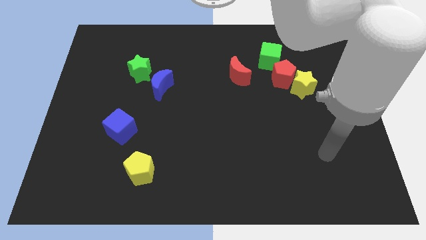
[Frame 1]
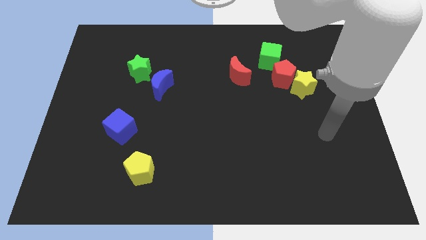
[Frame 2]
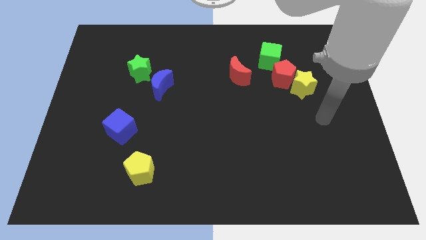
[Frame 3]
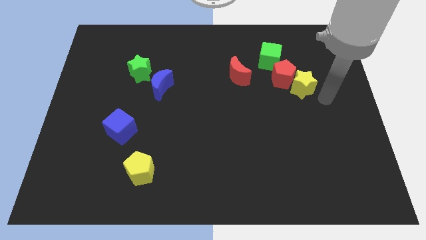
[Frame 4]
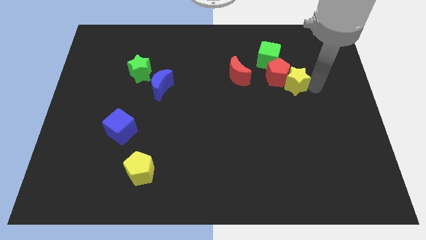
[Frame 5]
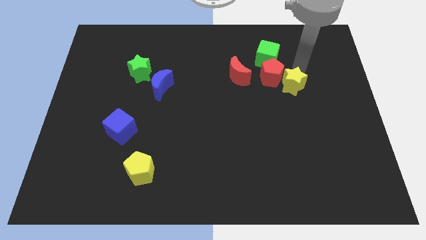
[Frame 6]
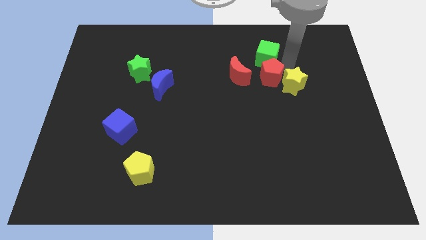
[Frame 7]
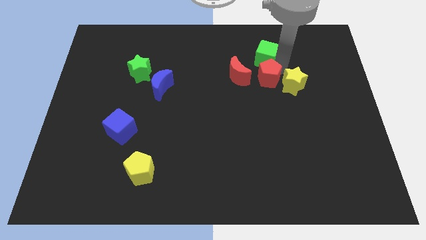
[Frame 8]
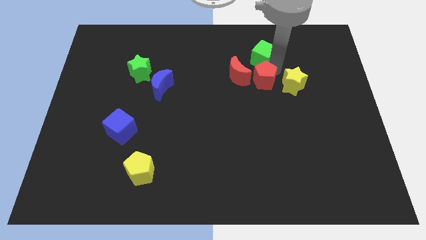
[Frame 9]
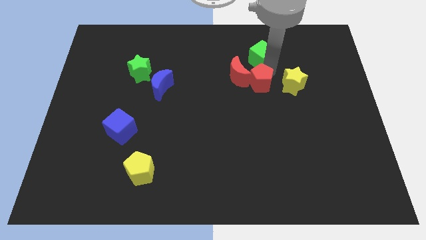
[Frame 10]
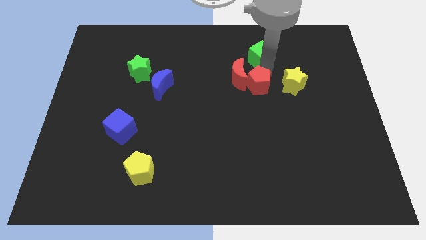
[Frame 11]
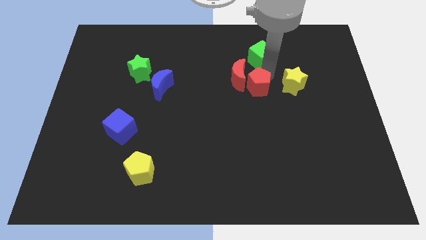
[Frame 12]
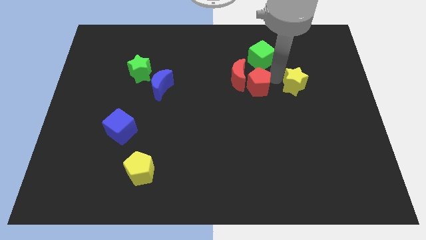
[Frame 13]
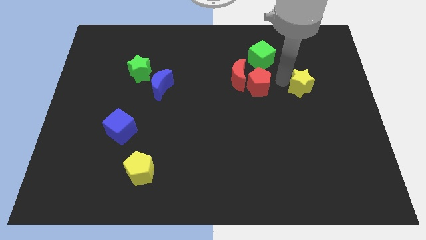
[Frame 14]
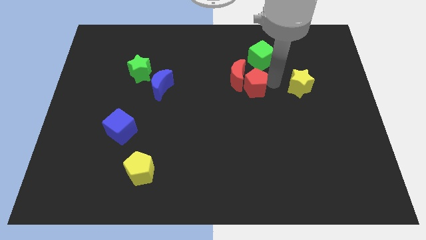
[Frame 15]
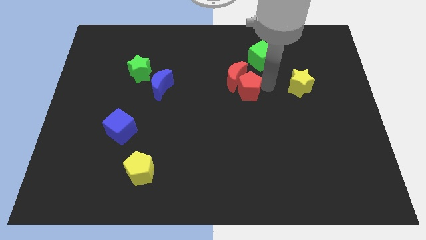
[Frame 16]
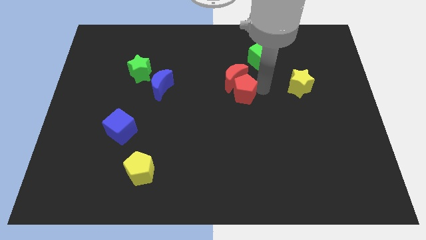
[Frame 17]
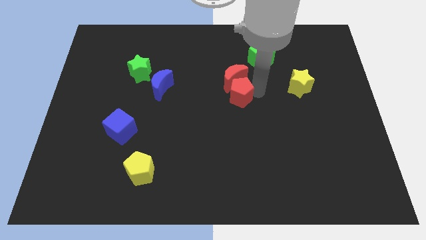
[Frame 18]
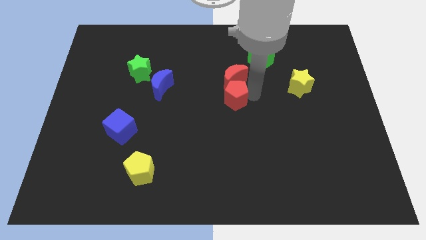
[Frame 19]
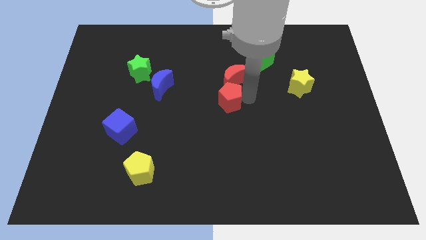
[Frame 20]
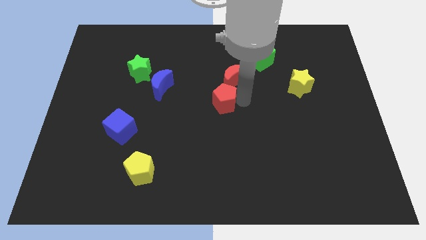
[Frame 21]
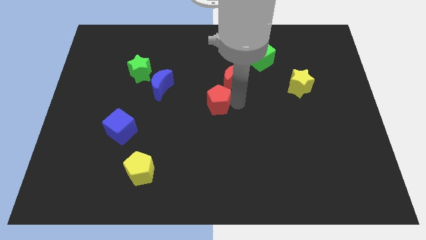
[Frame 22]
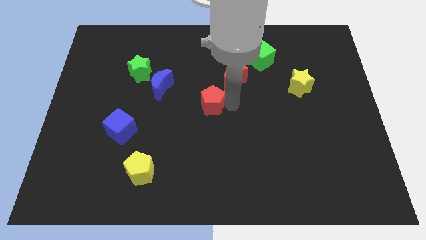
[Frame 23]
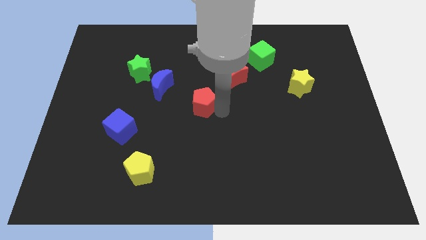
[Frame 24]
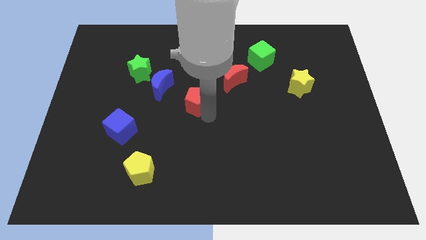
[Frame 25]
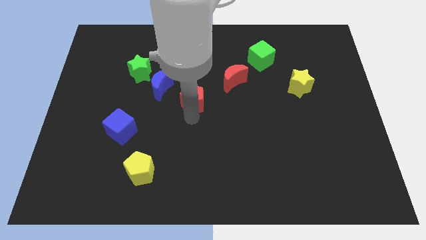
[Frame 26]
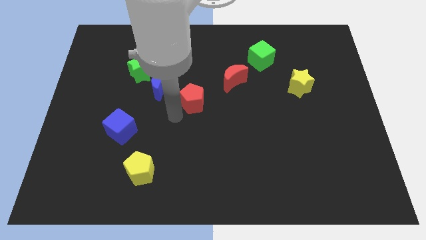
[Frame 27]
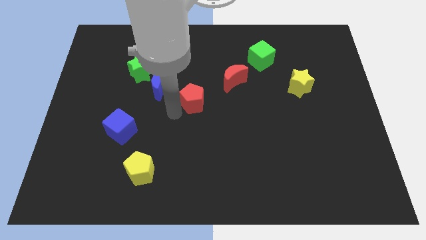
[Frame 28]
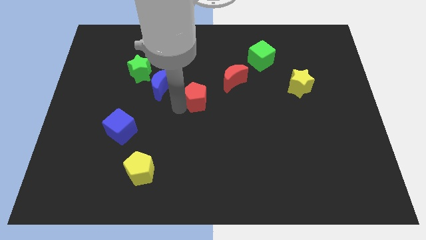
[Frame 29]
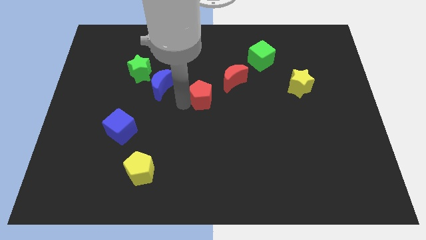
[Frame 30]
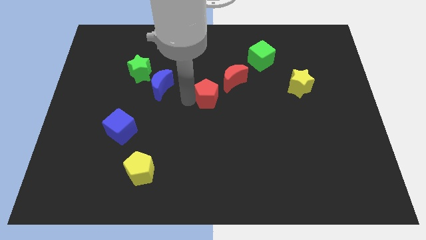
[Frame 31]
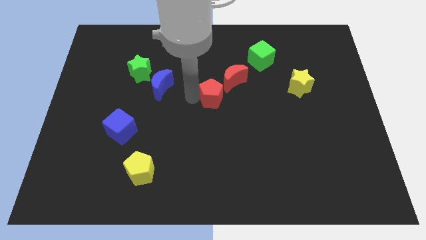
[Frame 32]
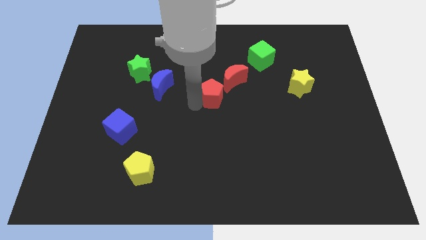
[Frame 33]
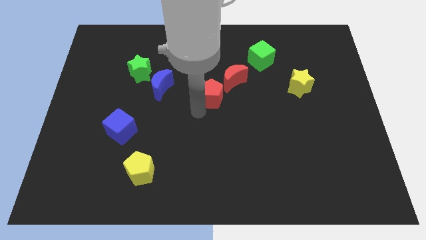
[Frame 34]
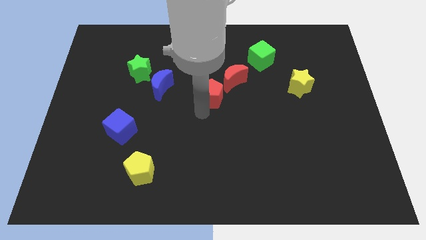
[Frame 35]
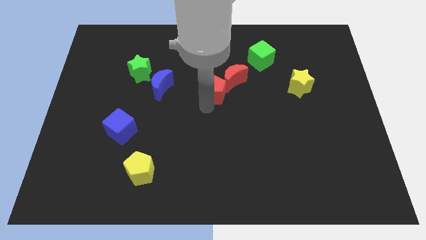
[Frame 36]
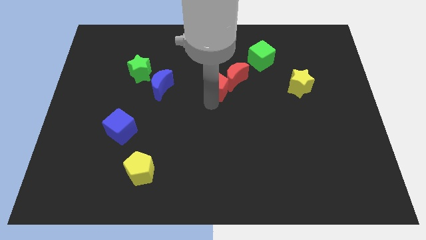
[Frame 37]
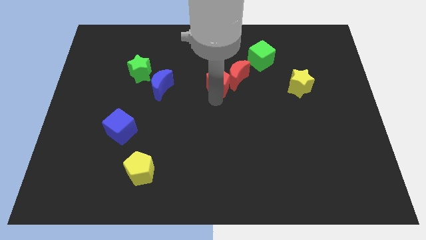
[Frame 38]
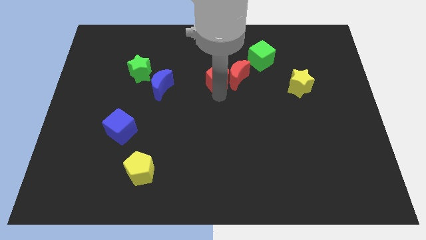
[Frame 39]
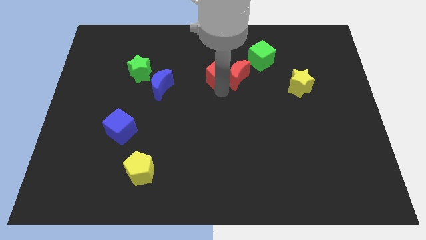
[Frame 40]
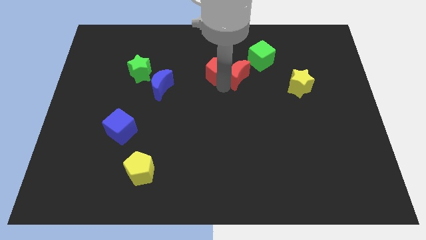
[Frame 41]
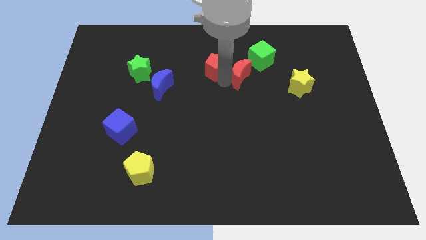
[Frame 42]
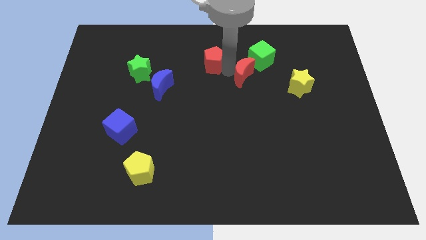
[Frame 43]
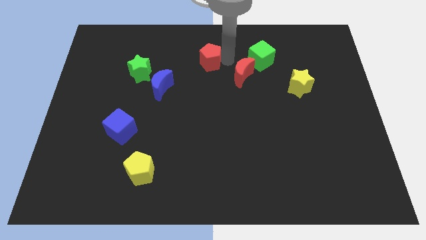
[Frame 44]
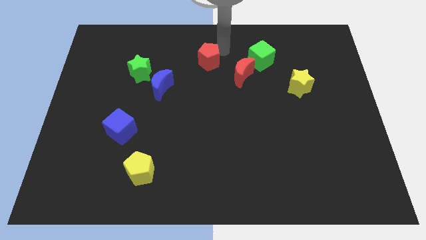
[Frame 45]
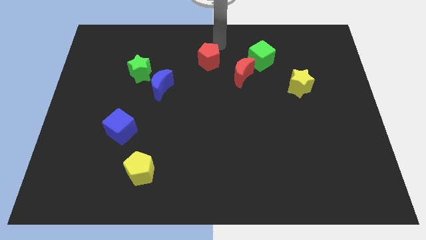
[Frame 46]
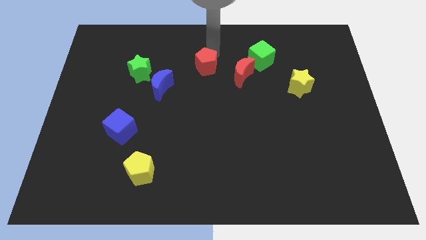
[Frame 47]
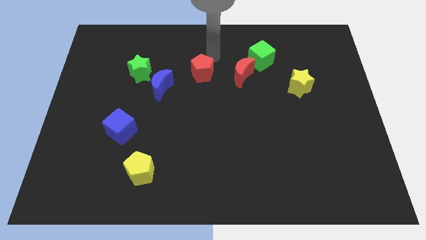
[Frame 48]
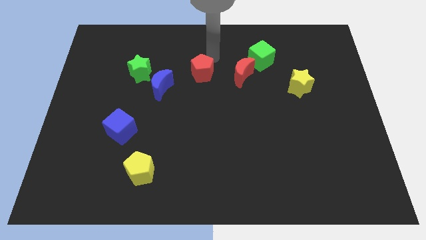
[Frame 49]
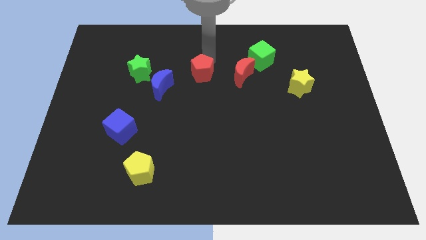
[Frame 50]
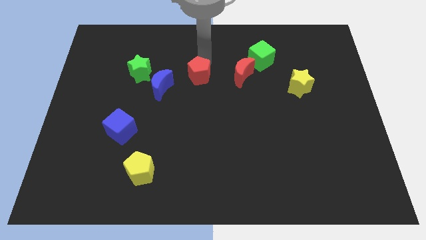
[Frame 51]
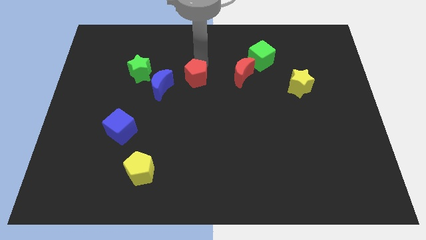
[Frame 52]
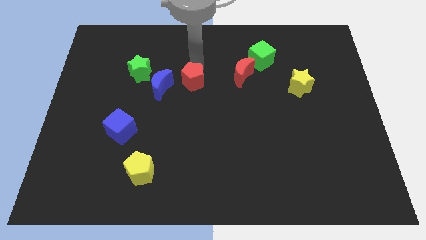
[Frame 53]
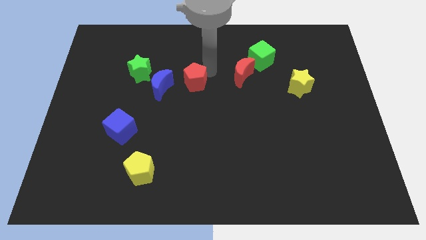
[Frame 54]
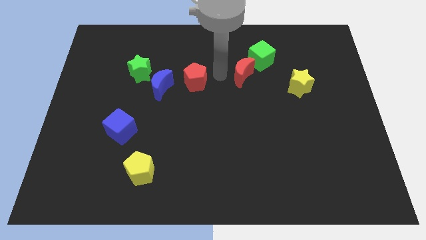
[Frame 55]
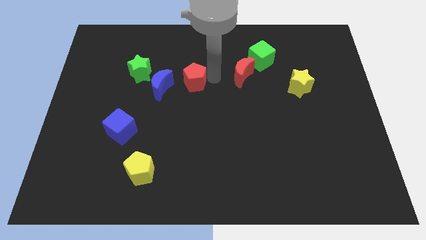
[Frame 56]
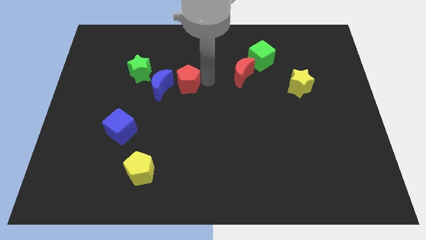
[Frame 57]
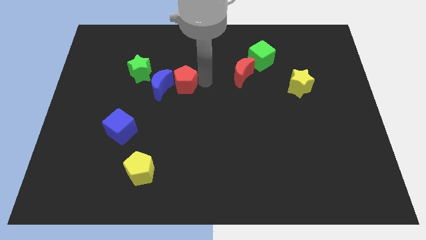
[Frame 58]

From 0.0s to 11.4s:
push the red pentagon next to the blue moon

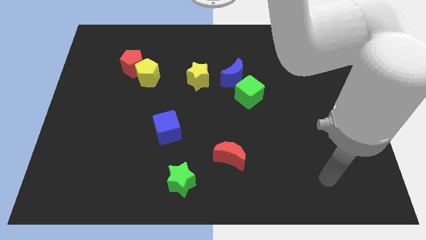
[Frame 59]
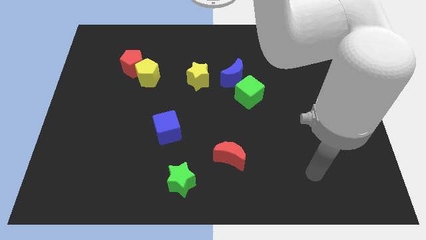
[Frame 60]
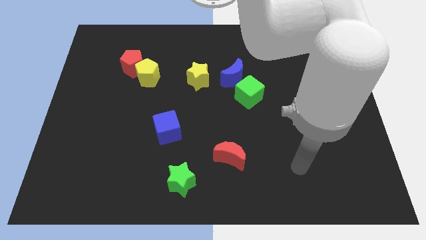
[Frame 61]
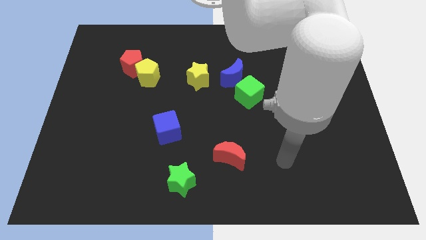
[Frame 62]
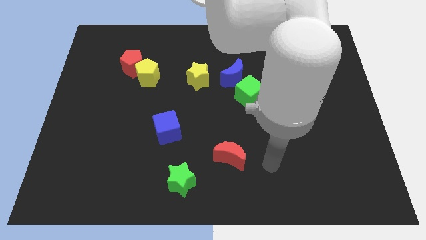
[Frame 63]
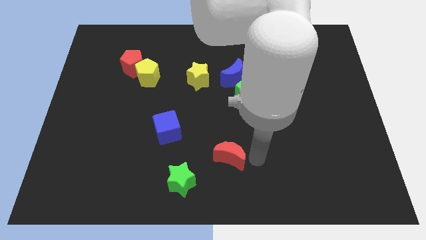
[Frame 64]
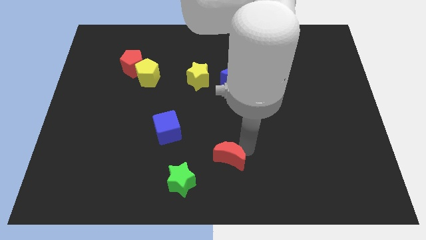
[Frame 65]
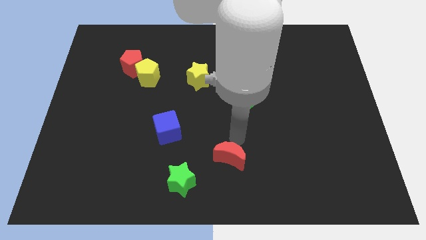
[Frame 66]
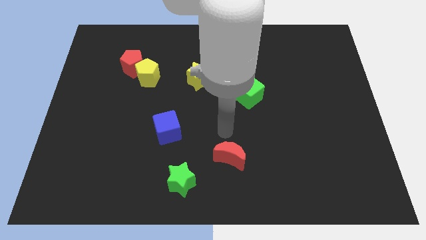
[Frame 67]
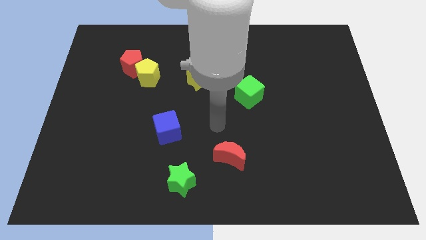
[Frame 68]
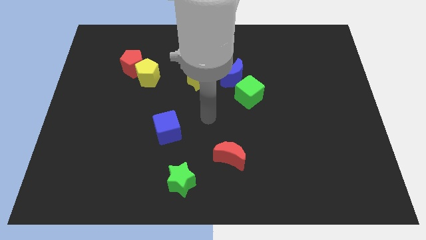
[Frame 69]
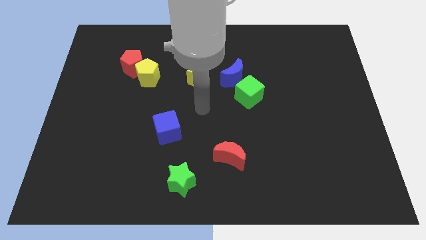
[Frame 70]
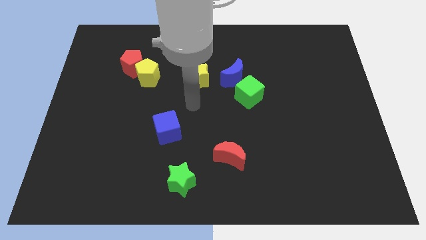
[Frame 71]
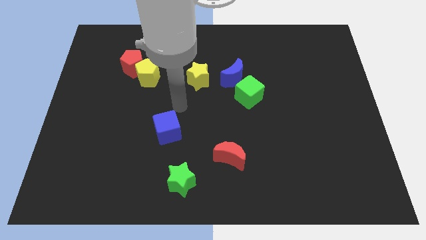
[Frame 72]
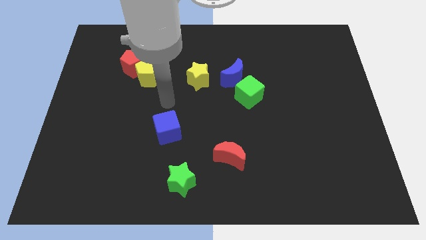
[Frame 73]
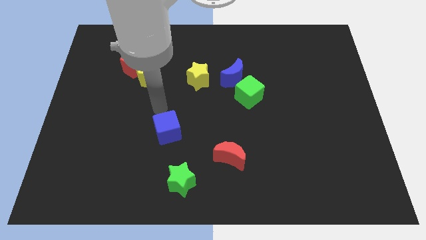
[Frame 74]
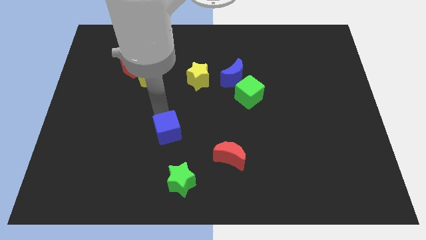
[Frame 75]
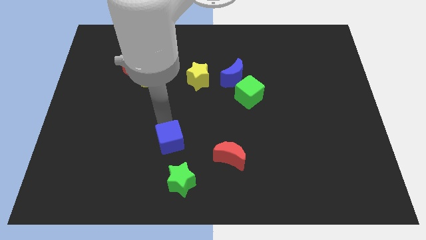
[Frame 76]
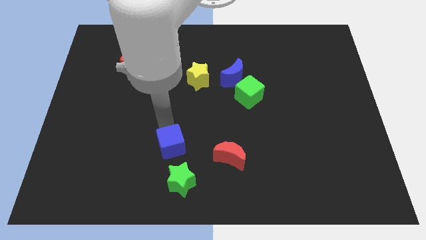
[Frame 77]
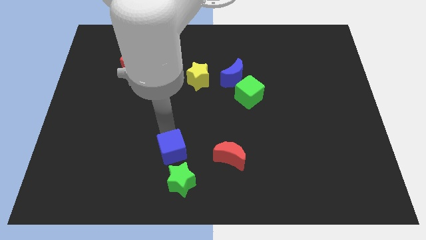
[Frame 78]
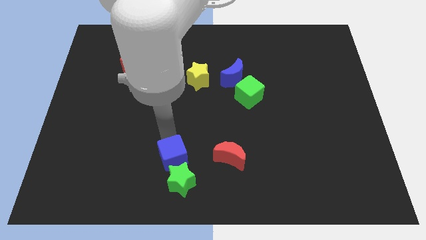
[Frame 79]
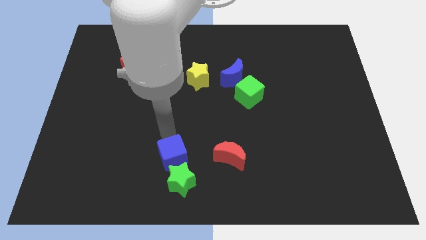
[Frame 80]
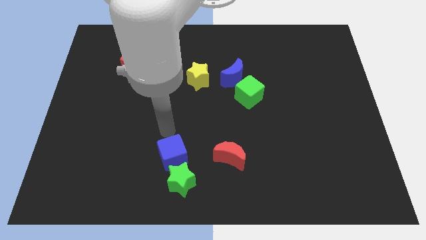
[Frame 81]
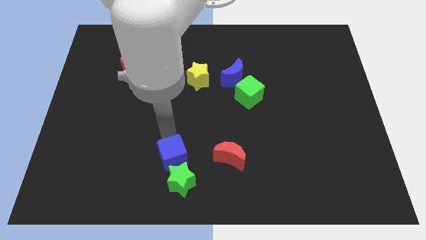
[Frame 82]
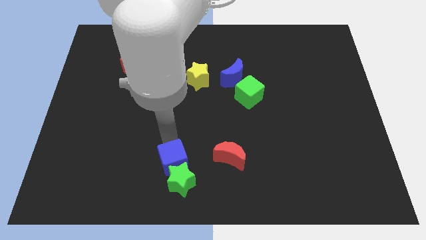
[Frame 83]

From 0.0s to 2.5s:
put the blue cube towards the green star
